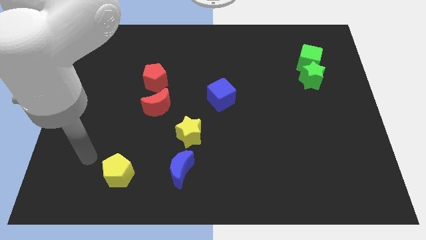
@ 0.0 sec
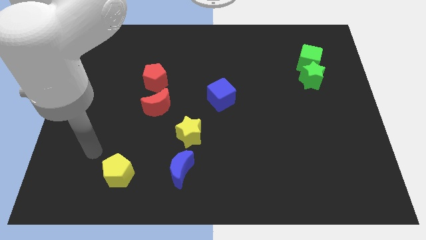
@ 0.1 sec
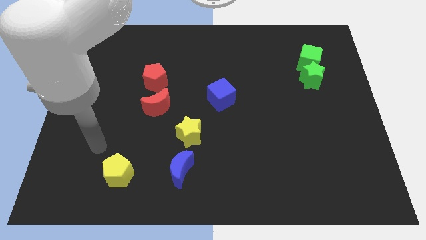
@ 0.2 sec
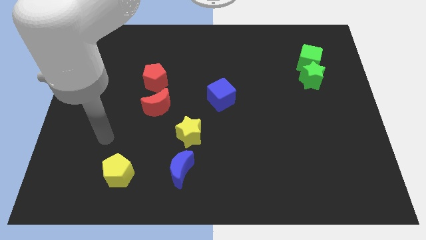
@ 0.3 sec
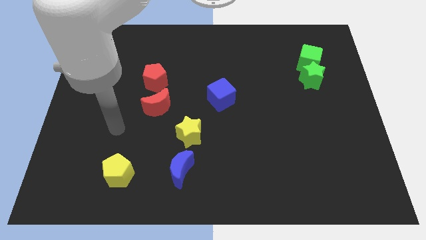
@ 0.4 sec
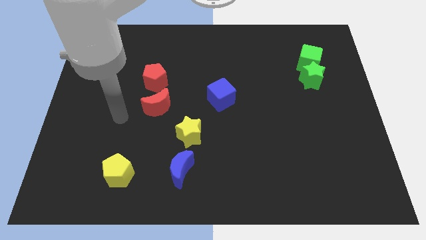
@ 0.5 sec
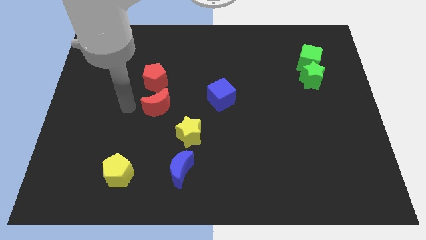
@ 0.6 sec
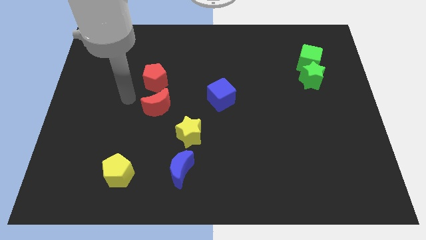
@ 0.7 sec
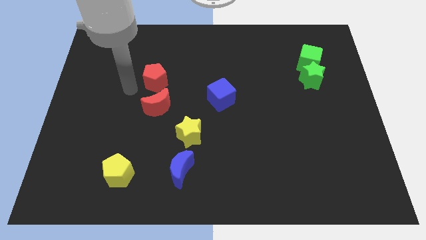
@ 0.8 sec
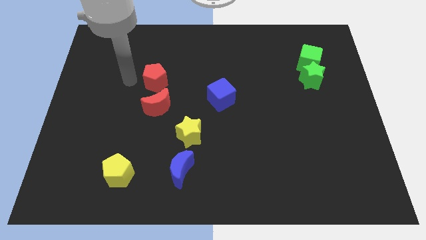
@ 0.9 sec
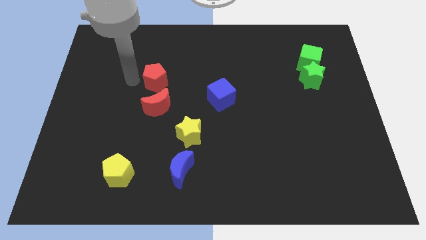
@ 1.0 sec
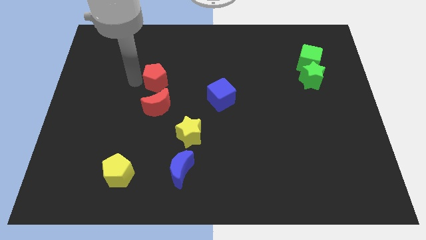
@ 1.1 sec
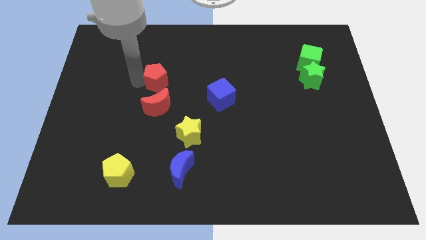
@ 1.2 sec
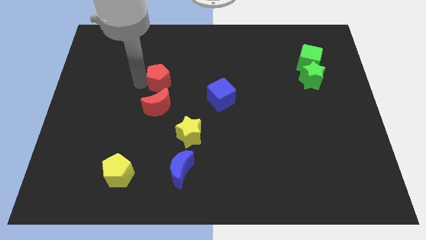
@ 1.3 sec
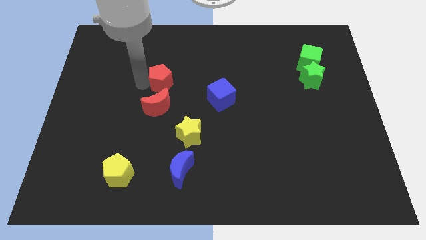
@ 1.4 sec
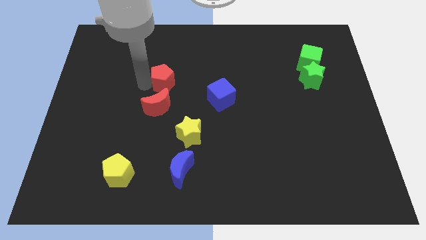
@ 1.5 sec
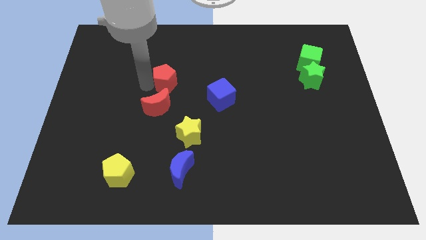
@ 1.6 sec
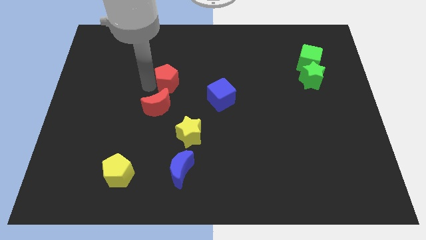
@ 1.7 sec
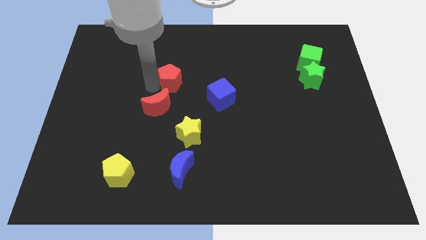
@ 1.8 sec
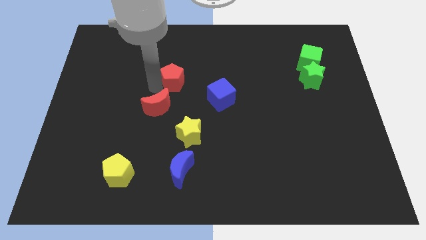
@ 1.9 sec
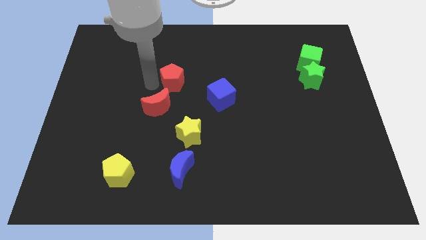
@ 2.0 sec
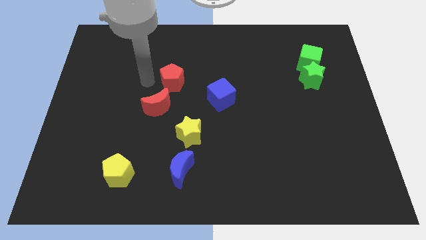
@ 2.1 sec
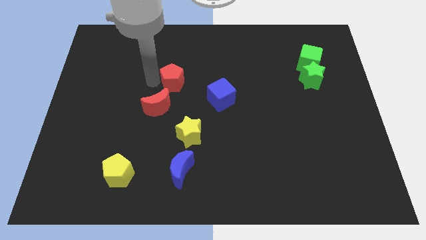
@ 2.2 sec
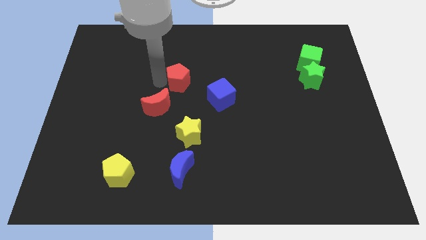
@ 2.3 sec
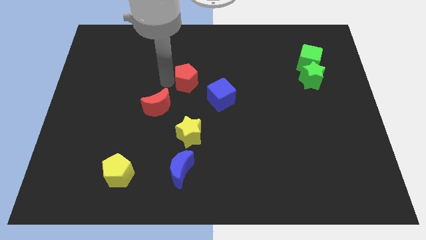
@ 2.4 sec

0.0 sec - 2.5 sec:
slide the red pentagon to the right somewhat

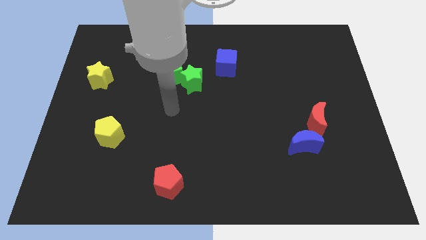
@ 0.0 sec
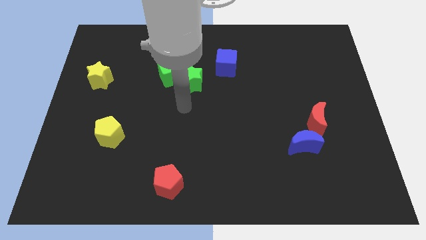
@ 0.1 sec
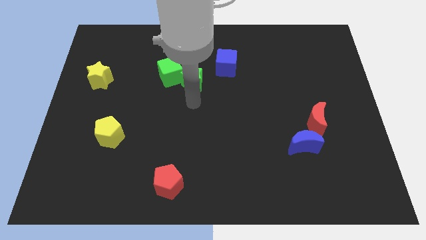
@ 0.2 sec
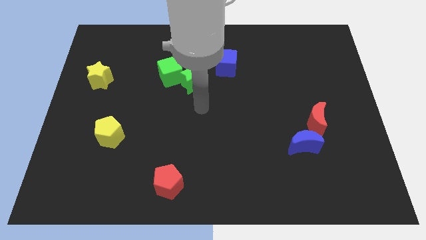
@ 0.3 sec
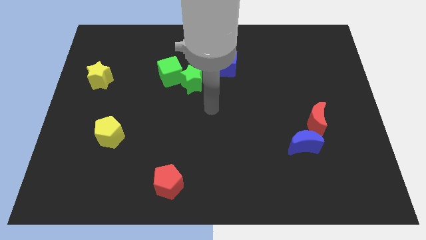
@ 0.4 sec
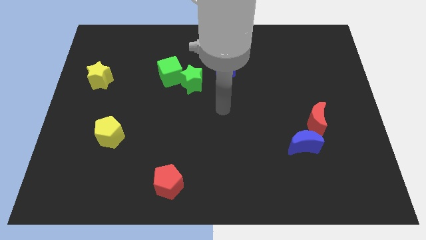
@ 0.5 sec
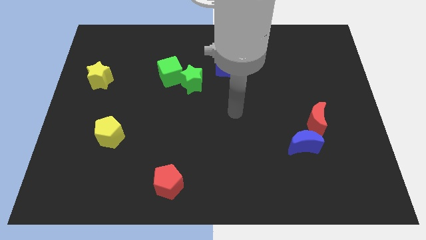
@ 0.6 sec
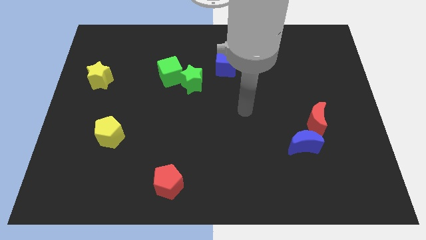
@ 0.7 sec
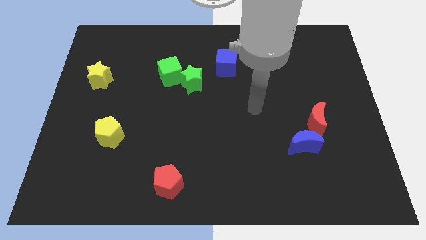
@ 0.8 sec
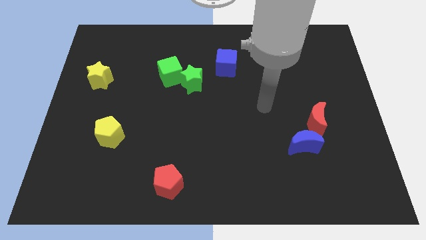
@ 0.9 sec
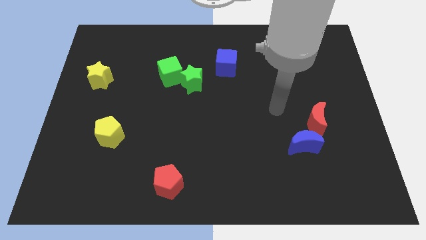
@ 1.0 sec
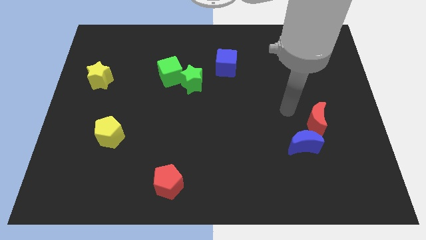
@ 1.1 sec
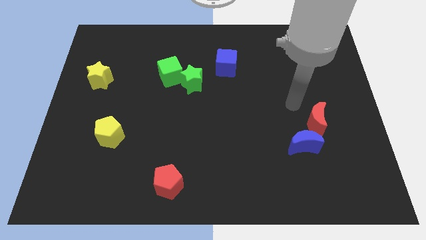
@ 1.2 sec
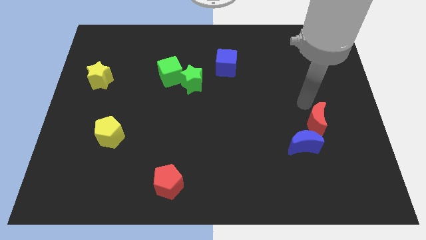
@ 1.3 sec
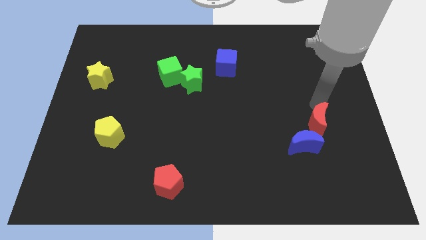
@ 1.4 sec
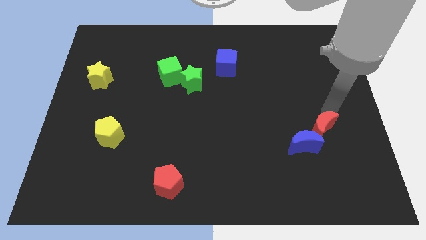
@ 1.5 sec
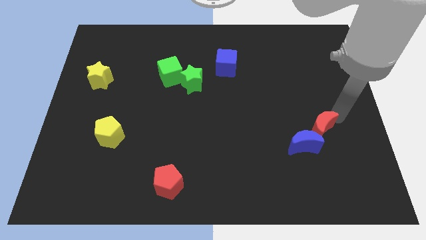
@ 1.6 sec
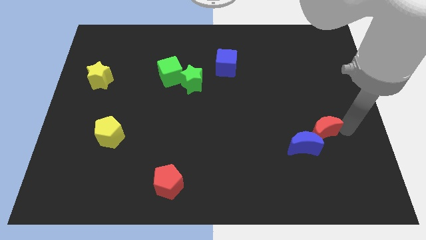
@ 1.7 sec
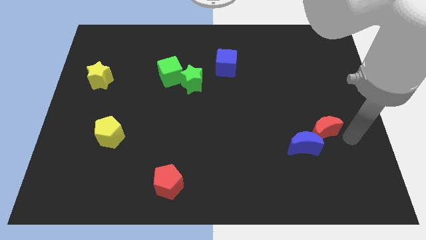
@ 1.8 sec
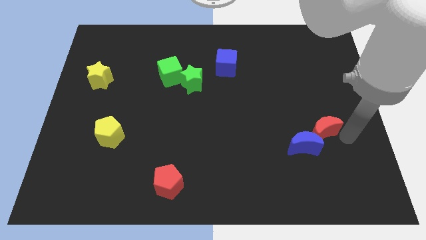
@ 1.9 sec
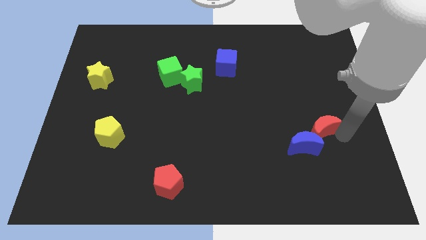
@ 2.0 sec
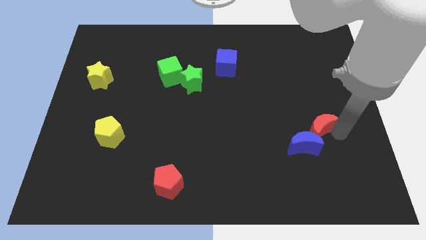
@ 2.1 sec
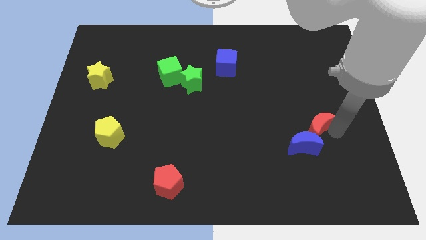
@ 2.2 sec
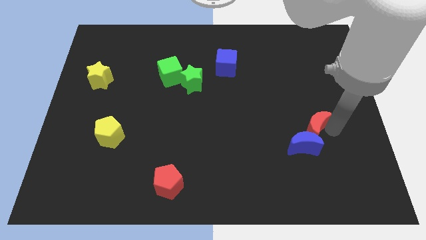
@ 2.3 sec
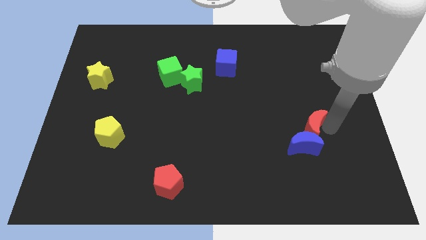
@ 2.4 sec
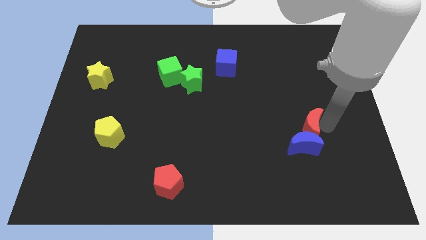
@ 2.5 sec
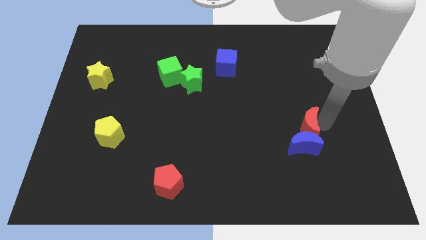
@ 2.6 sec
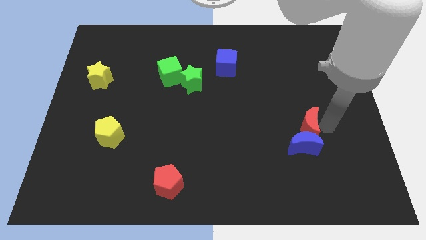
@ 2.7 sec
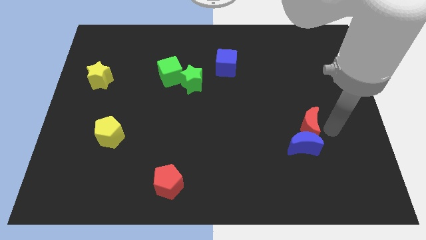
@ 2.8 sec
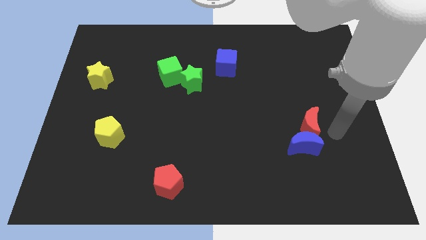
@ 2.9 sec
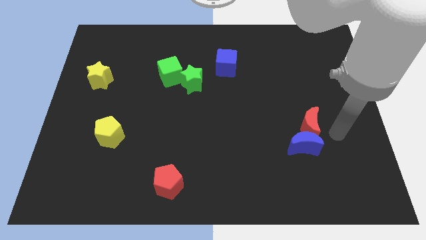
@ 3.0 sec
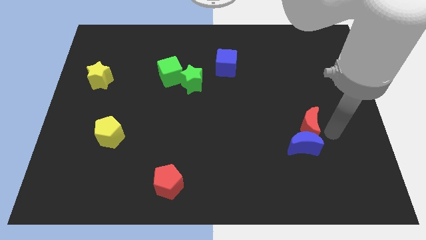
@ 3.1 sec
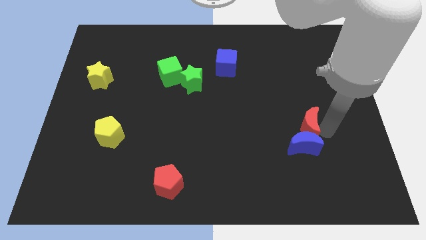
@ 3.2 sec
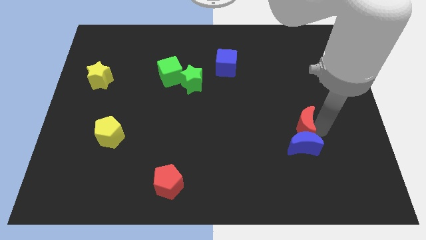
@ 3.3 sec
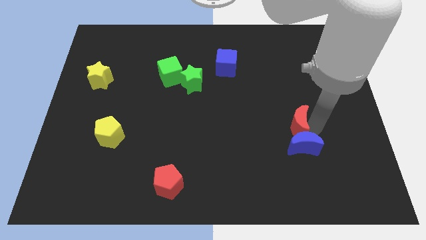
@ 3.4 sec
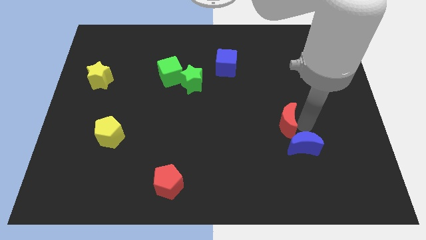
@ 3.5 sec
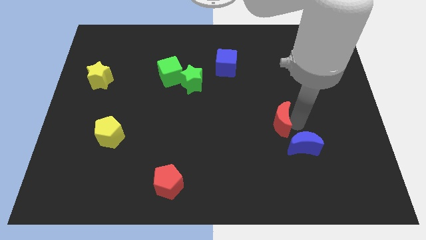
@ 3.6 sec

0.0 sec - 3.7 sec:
slightly push the red moon to the left

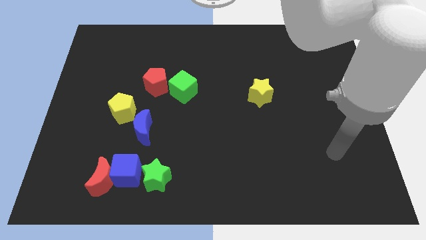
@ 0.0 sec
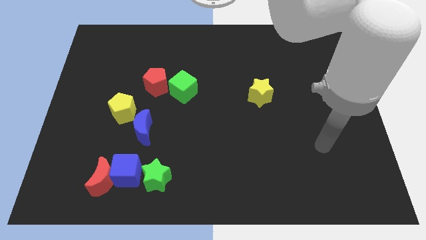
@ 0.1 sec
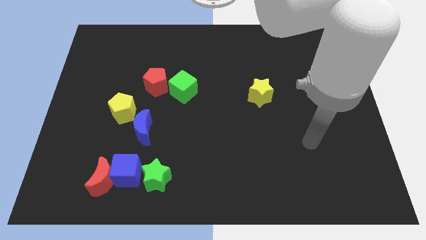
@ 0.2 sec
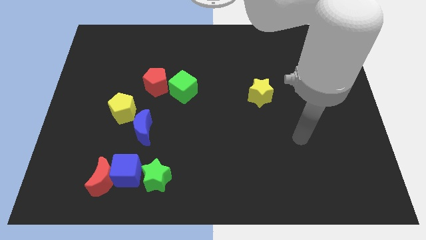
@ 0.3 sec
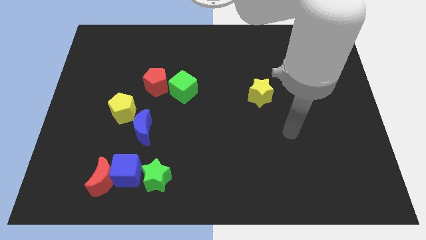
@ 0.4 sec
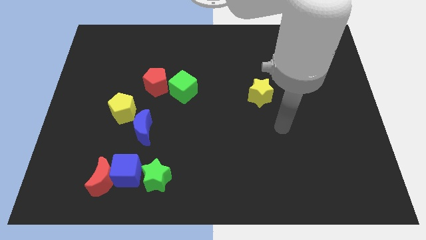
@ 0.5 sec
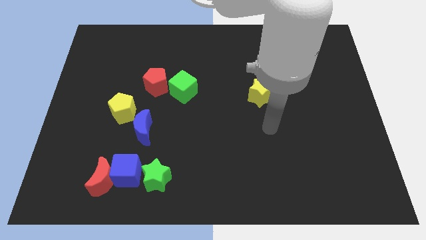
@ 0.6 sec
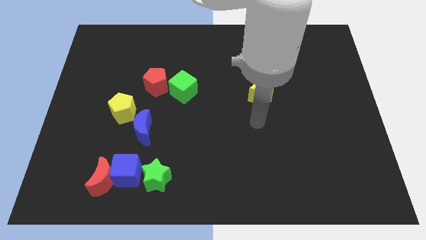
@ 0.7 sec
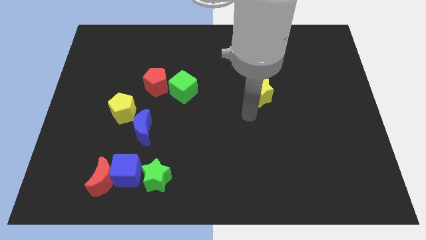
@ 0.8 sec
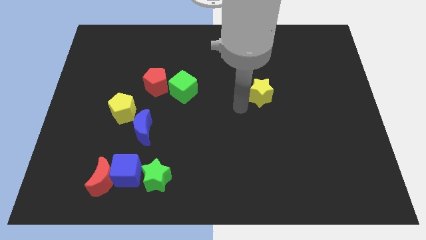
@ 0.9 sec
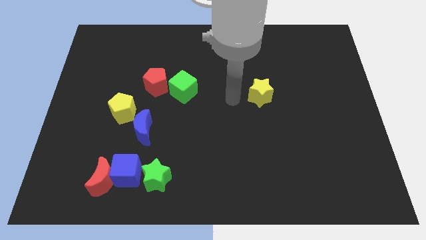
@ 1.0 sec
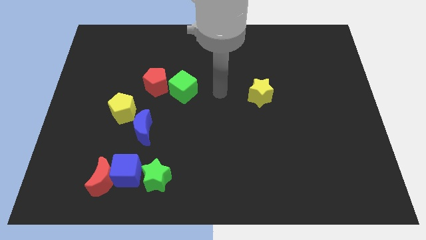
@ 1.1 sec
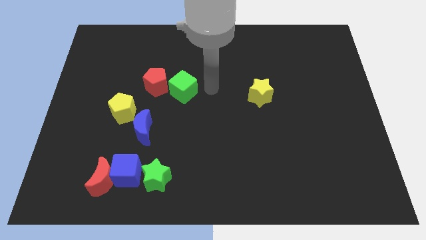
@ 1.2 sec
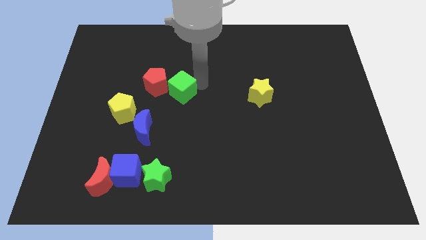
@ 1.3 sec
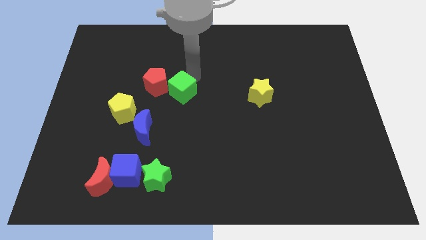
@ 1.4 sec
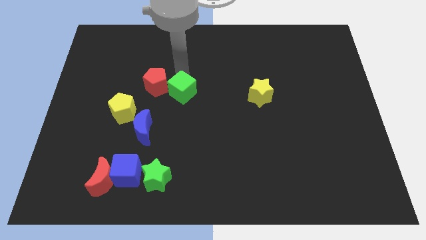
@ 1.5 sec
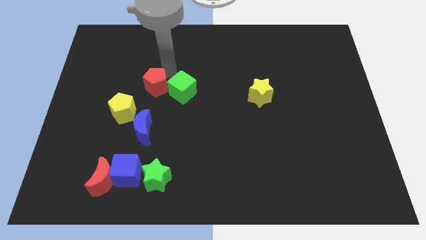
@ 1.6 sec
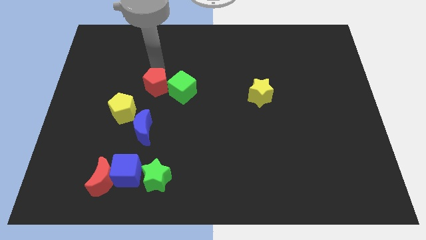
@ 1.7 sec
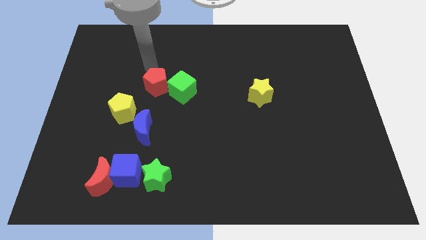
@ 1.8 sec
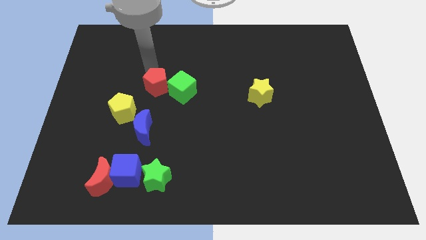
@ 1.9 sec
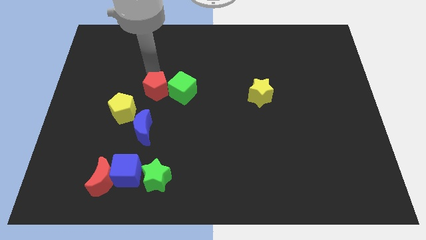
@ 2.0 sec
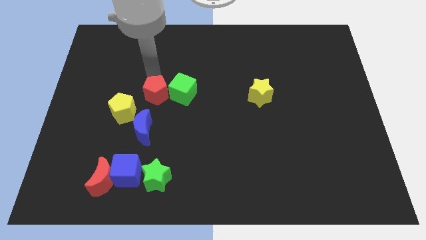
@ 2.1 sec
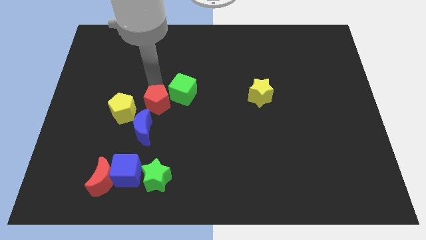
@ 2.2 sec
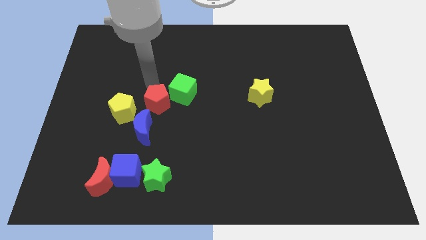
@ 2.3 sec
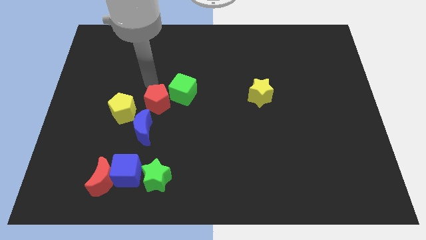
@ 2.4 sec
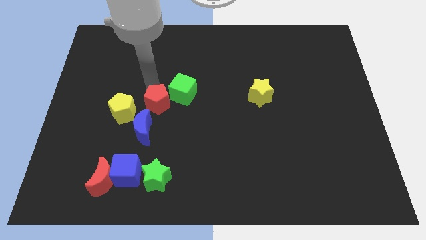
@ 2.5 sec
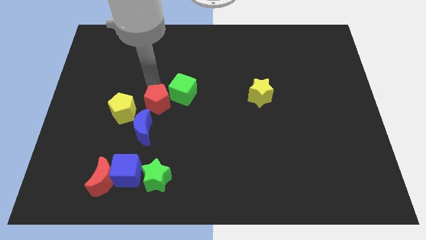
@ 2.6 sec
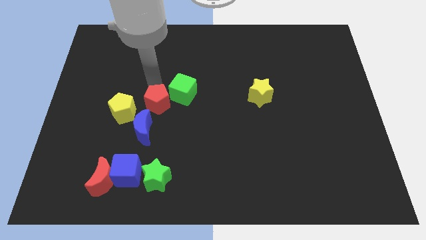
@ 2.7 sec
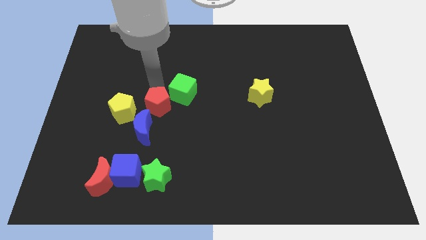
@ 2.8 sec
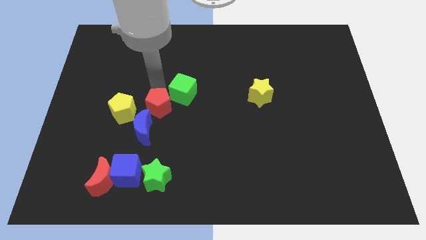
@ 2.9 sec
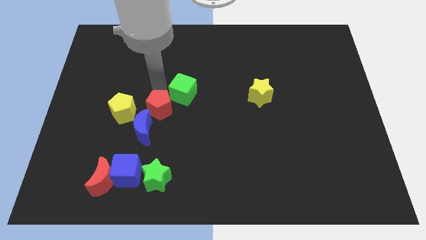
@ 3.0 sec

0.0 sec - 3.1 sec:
move the red pentagon somewhat down
